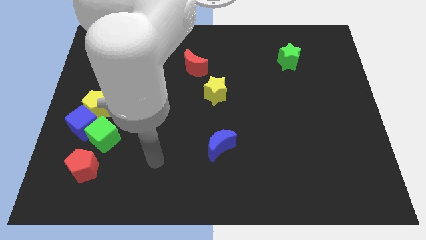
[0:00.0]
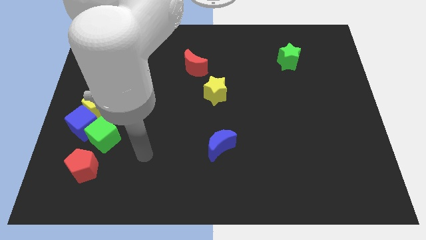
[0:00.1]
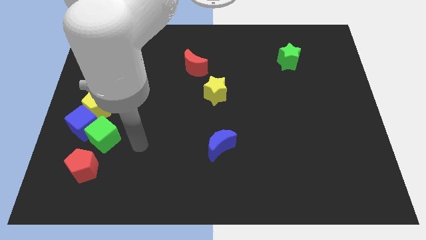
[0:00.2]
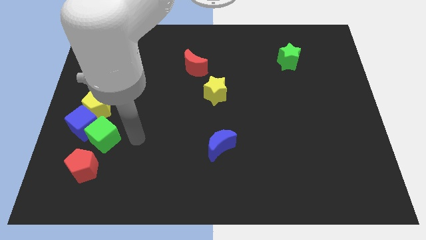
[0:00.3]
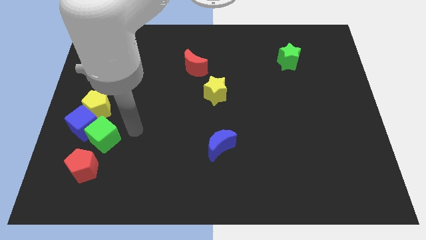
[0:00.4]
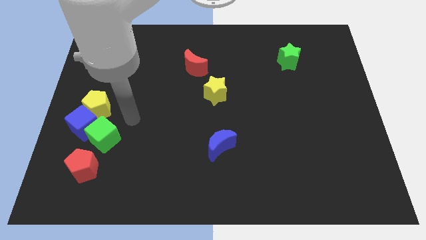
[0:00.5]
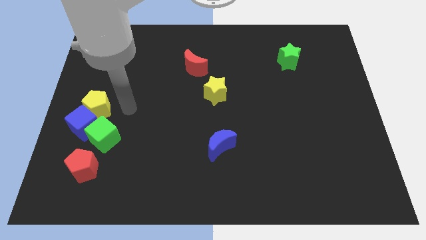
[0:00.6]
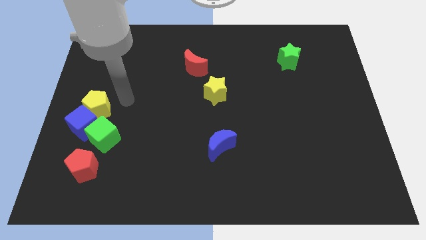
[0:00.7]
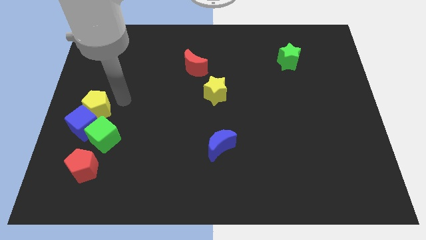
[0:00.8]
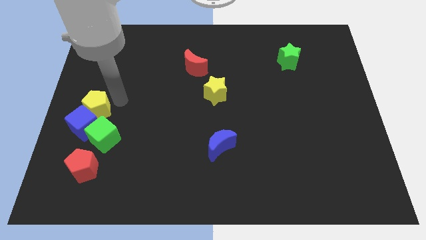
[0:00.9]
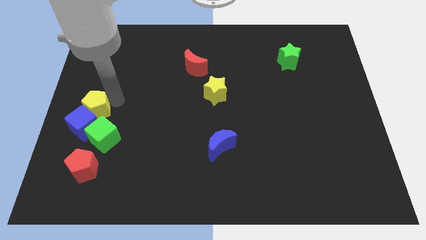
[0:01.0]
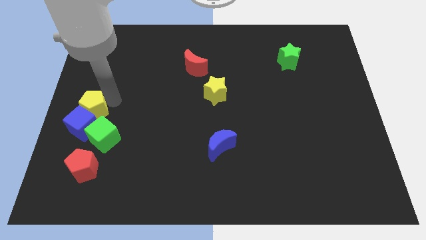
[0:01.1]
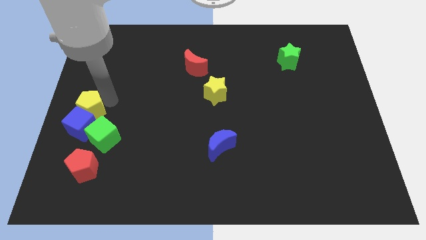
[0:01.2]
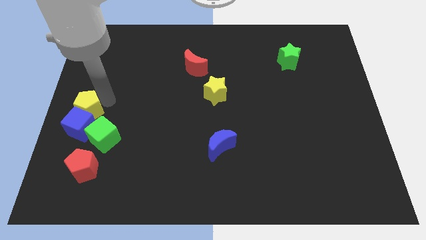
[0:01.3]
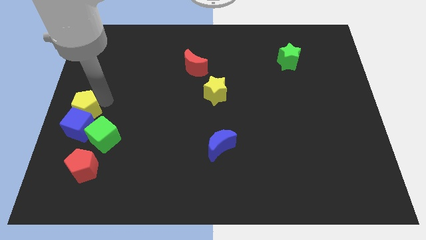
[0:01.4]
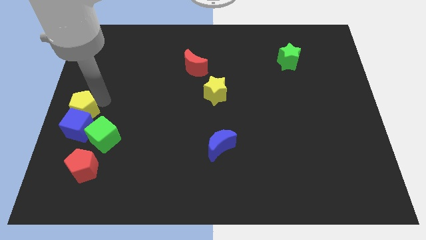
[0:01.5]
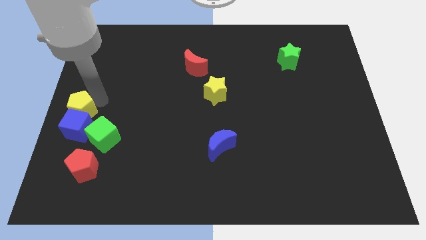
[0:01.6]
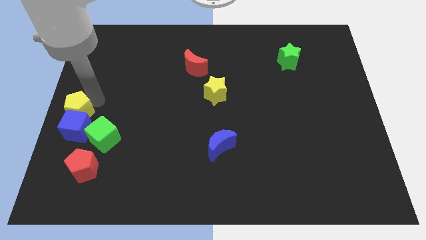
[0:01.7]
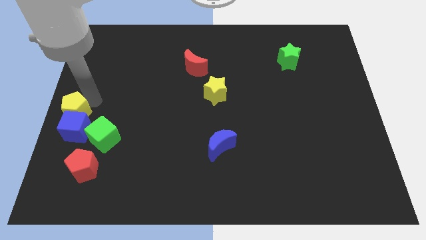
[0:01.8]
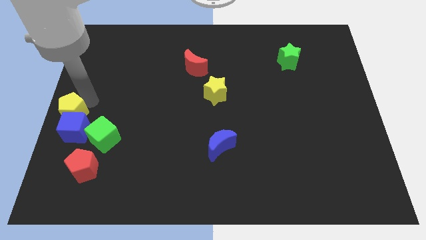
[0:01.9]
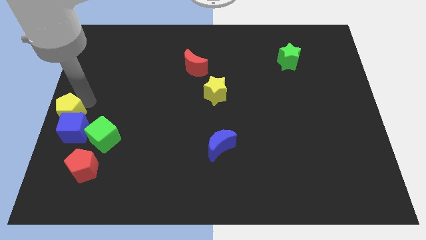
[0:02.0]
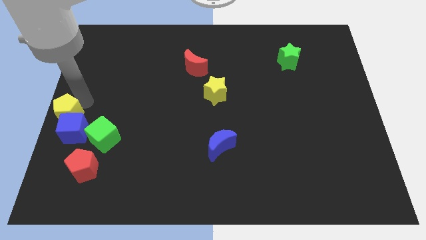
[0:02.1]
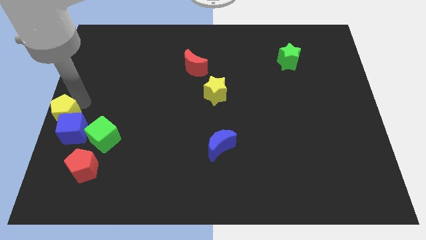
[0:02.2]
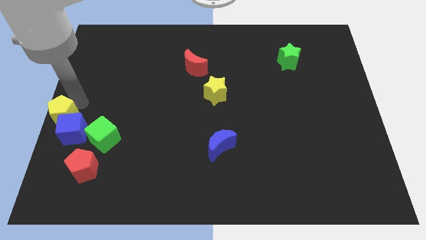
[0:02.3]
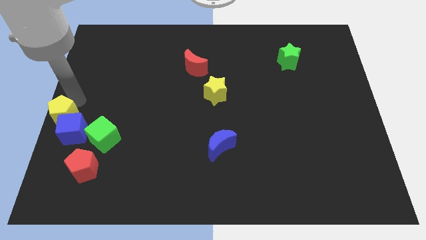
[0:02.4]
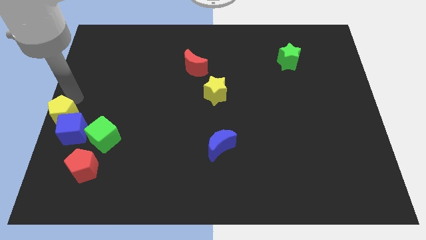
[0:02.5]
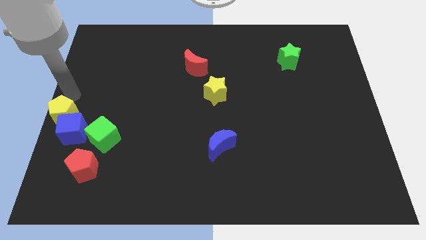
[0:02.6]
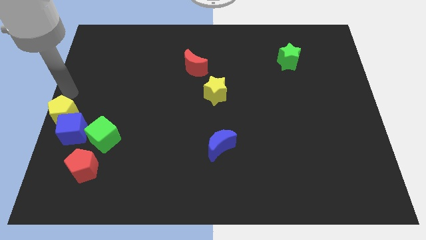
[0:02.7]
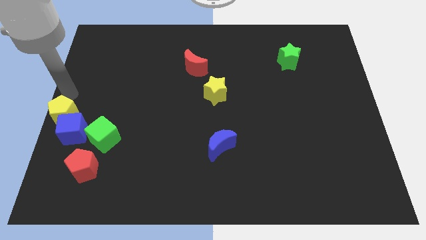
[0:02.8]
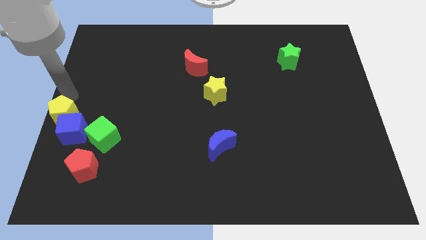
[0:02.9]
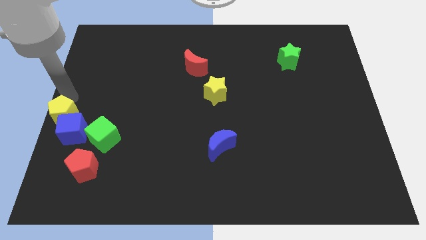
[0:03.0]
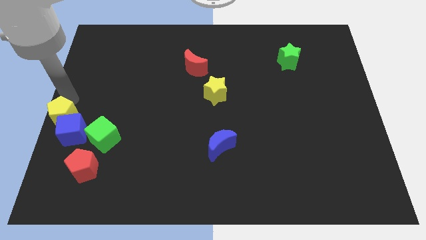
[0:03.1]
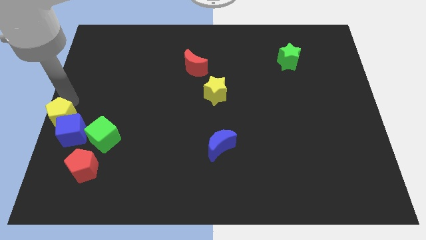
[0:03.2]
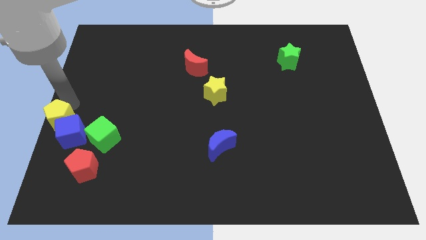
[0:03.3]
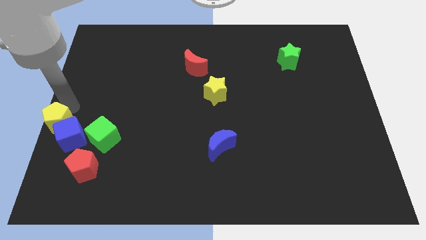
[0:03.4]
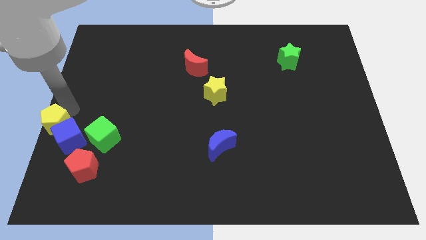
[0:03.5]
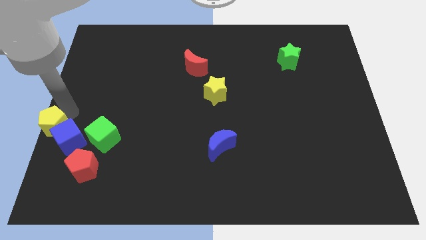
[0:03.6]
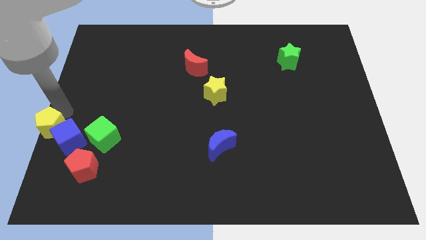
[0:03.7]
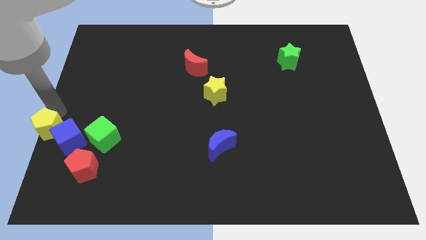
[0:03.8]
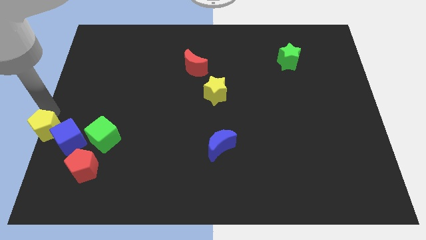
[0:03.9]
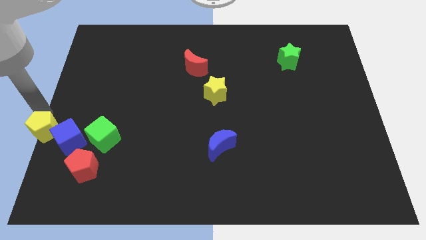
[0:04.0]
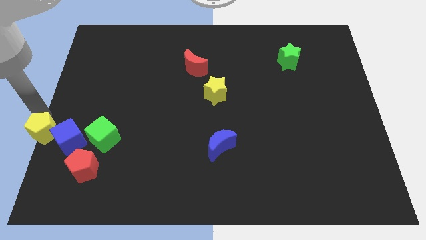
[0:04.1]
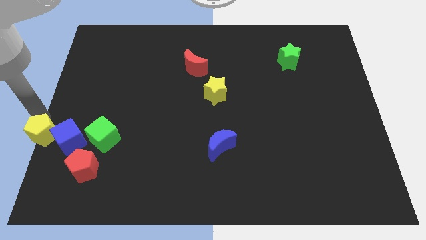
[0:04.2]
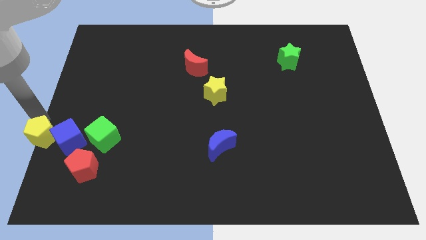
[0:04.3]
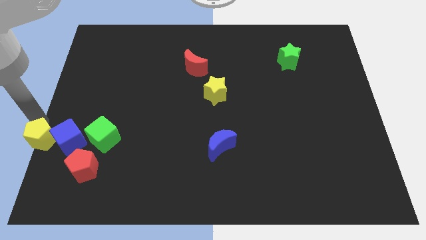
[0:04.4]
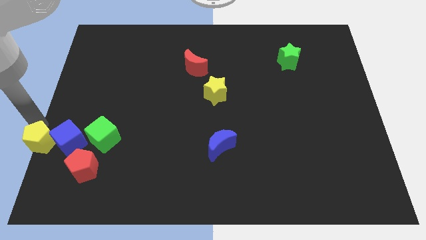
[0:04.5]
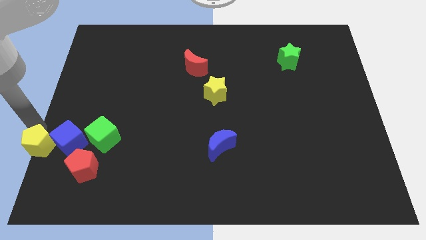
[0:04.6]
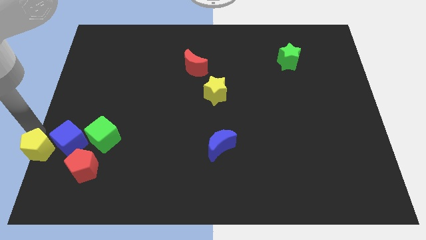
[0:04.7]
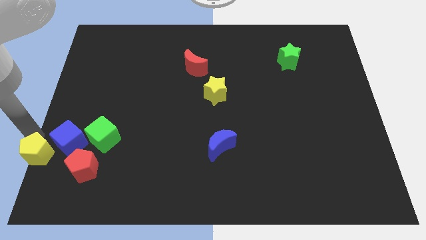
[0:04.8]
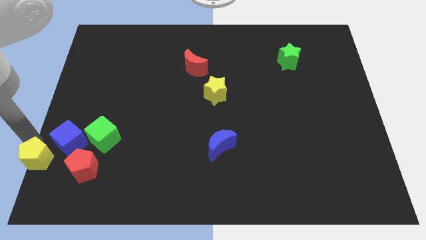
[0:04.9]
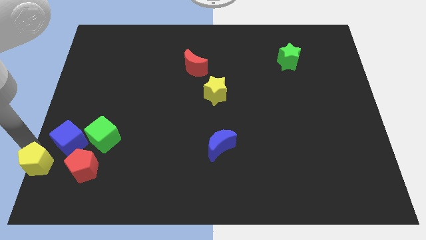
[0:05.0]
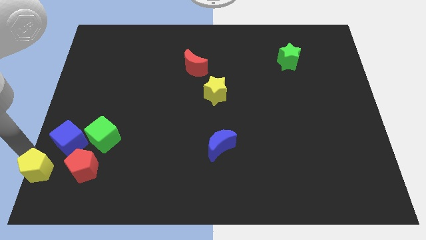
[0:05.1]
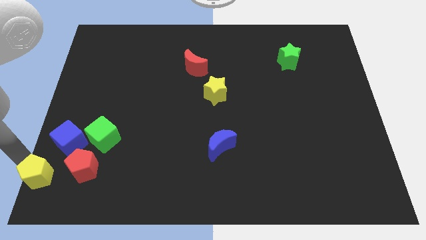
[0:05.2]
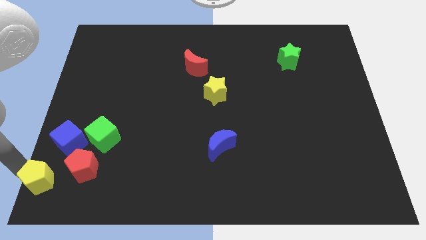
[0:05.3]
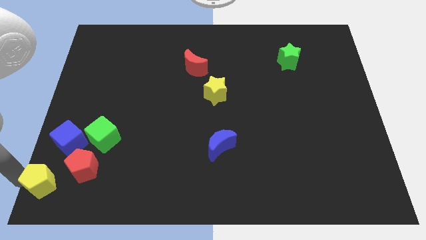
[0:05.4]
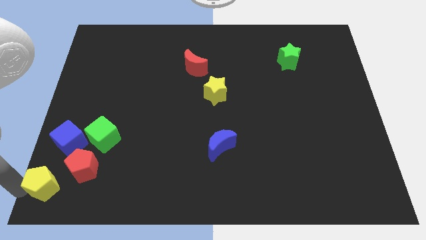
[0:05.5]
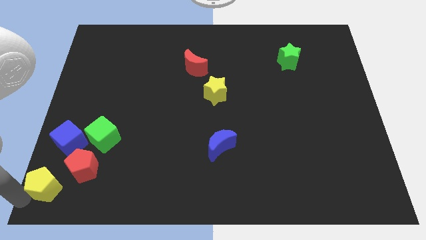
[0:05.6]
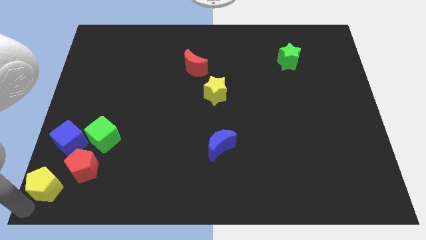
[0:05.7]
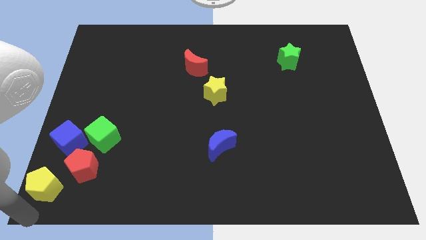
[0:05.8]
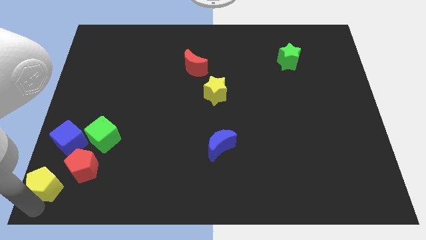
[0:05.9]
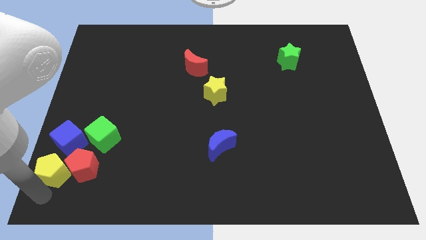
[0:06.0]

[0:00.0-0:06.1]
slide the yellow pentagon to the red pentagon
